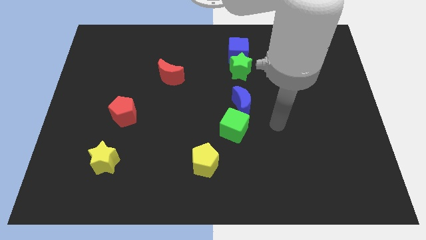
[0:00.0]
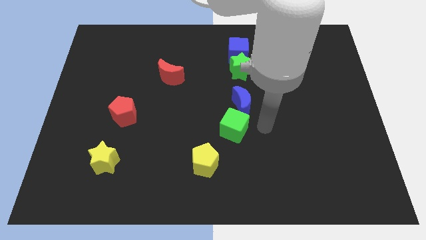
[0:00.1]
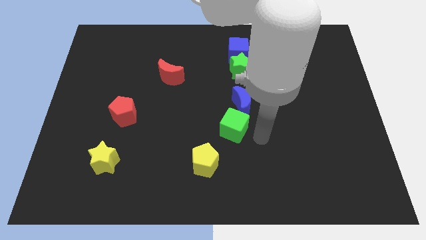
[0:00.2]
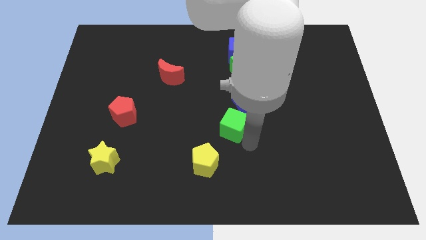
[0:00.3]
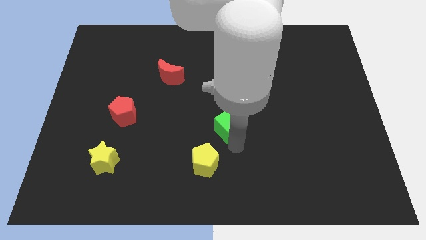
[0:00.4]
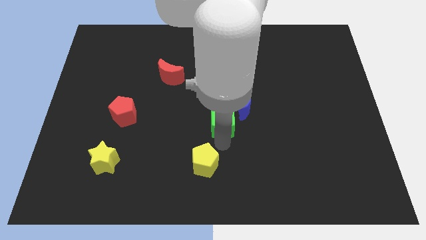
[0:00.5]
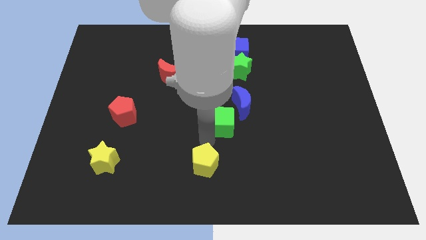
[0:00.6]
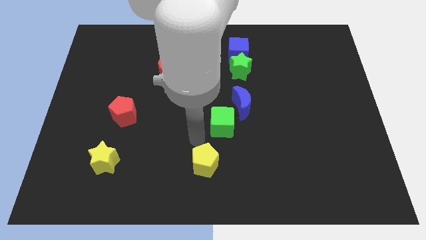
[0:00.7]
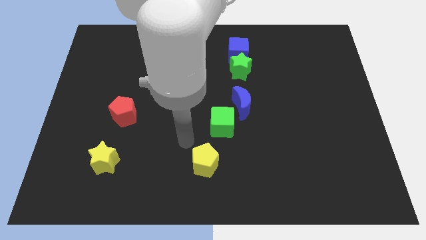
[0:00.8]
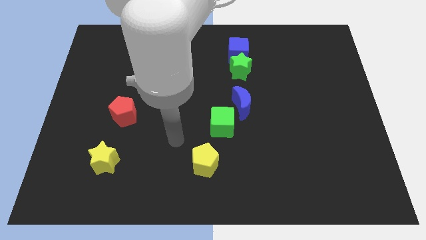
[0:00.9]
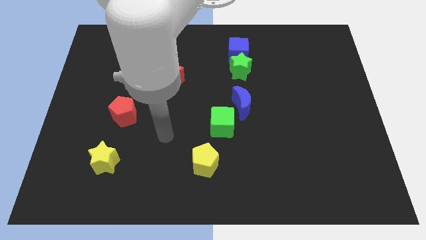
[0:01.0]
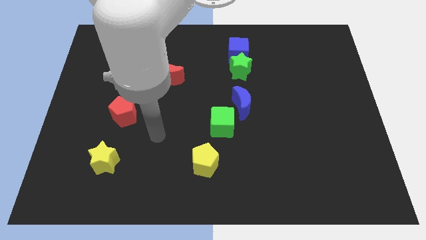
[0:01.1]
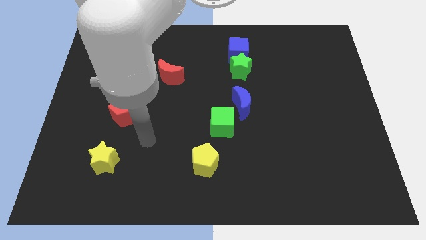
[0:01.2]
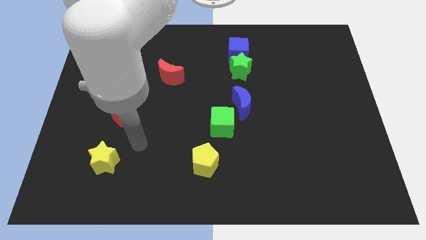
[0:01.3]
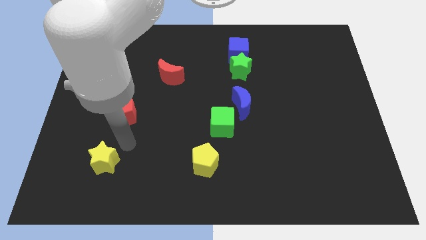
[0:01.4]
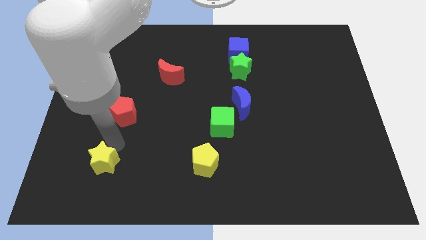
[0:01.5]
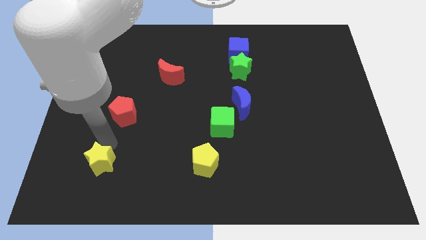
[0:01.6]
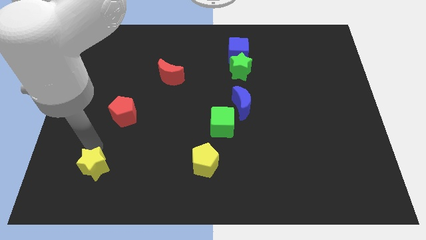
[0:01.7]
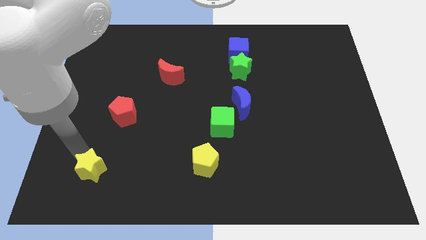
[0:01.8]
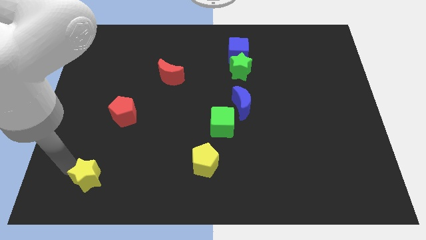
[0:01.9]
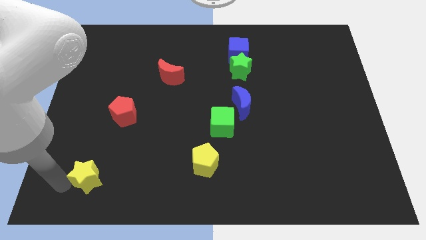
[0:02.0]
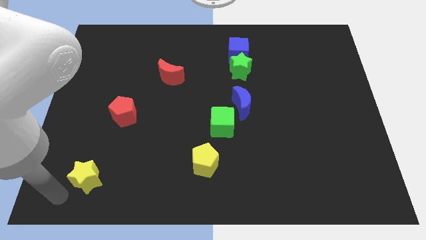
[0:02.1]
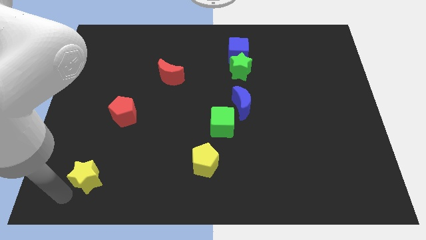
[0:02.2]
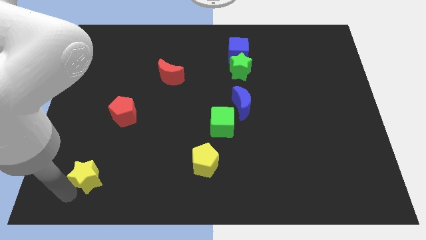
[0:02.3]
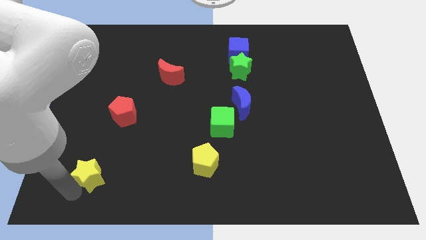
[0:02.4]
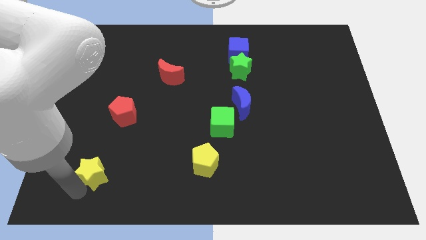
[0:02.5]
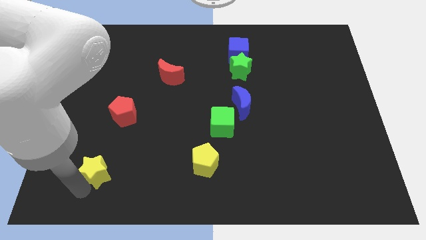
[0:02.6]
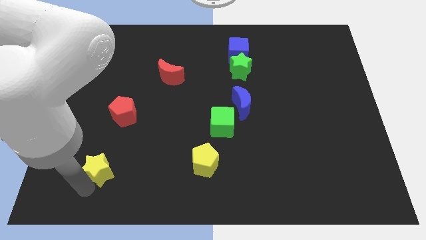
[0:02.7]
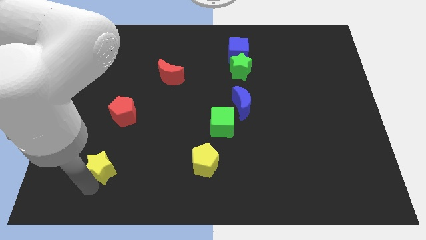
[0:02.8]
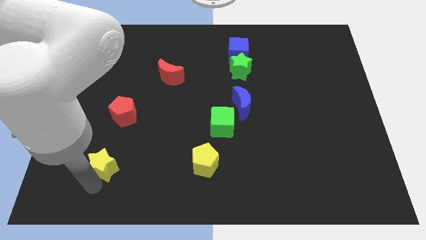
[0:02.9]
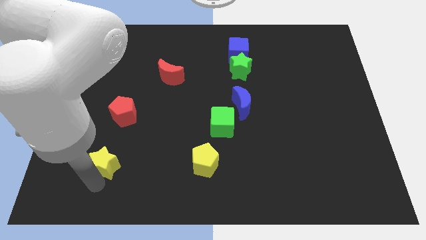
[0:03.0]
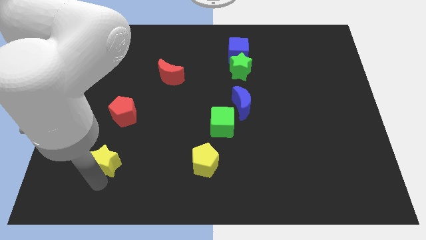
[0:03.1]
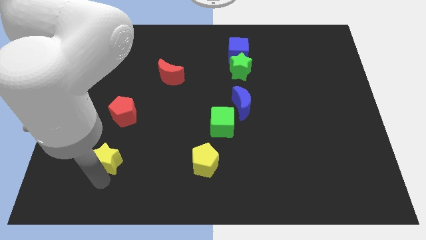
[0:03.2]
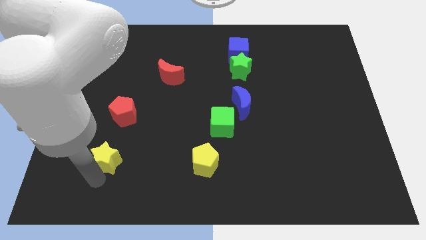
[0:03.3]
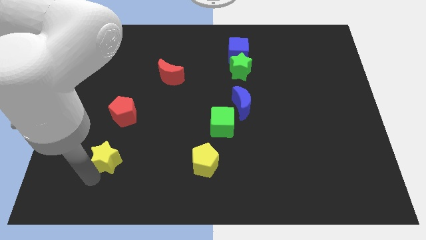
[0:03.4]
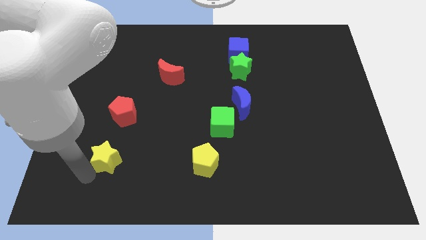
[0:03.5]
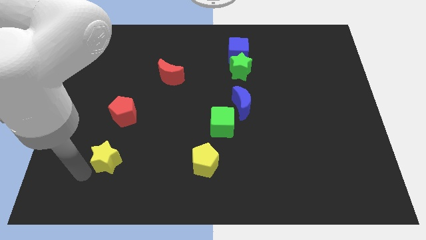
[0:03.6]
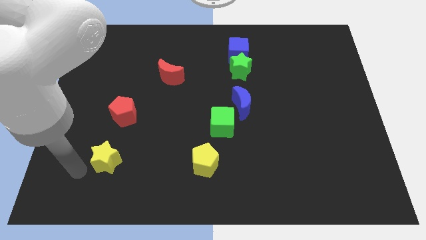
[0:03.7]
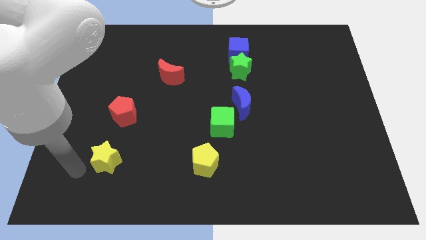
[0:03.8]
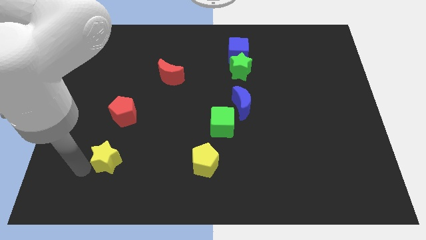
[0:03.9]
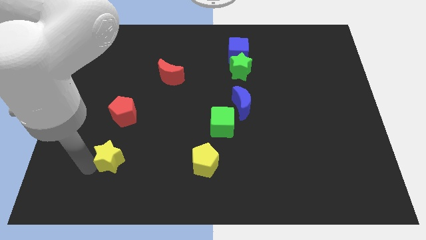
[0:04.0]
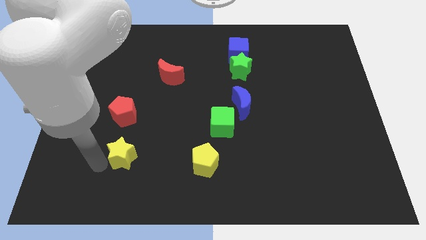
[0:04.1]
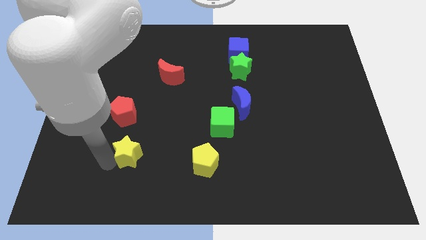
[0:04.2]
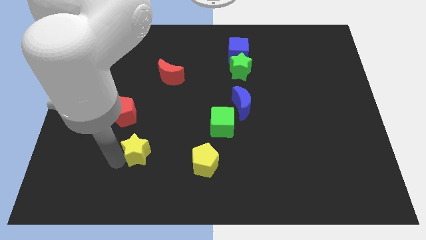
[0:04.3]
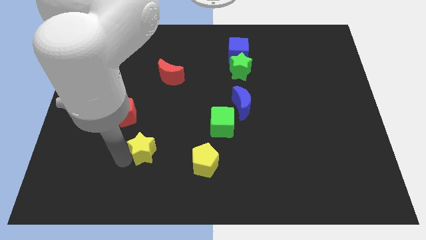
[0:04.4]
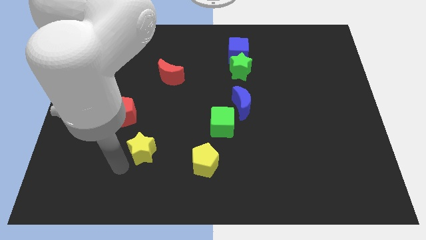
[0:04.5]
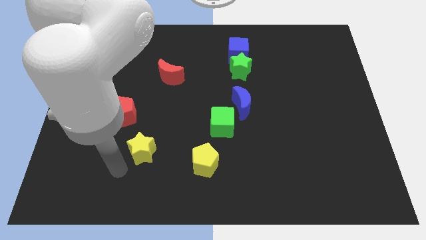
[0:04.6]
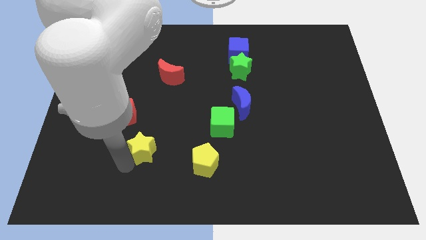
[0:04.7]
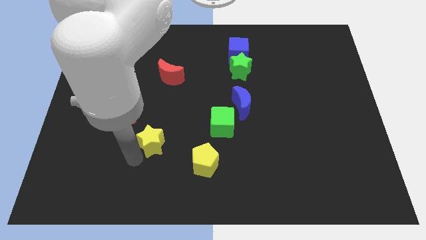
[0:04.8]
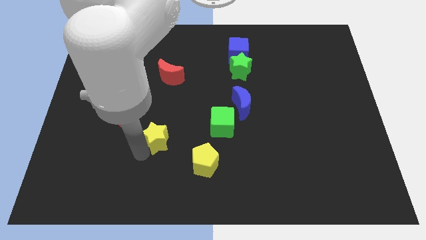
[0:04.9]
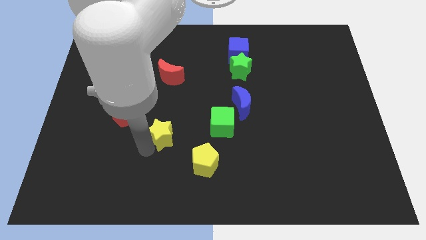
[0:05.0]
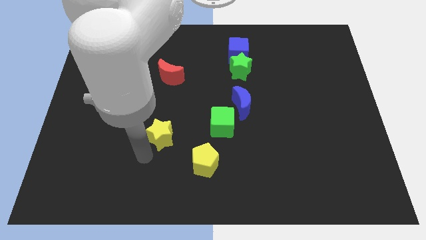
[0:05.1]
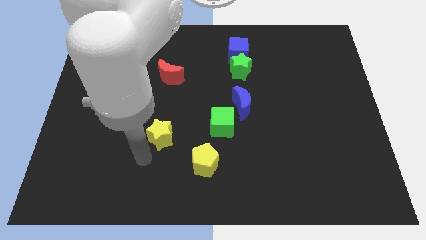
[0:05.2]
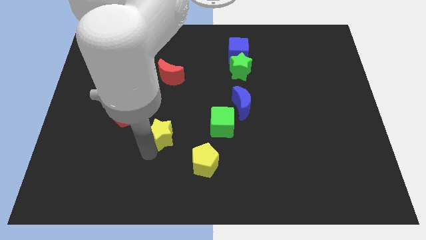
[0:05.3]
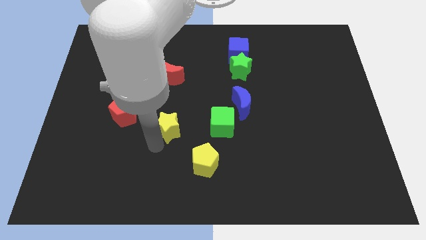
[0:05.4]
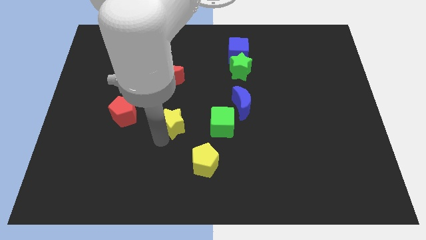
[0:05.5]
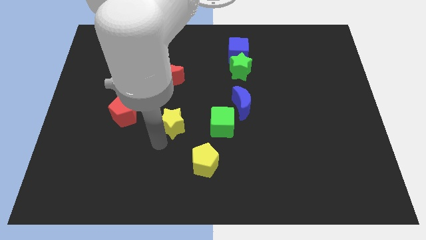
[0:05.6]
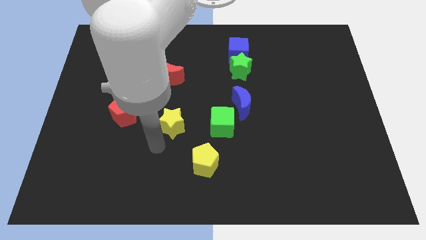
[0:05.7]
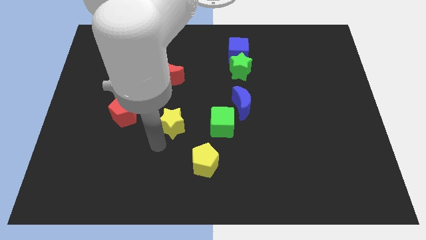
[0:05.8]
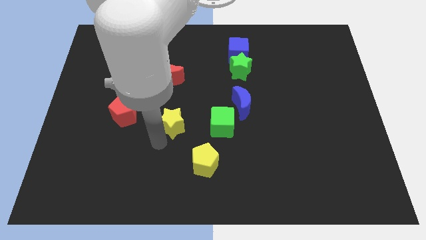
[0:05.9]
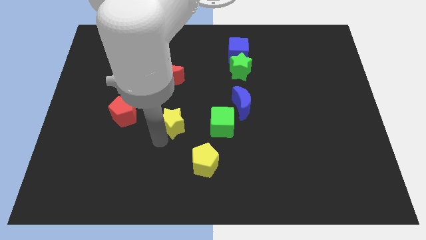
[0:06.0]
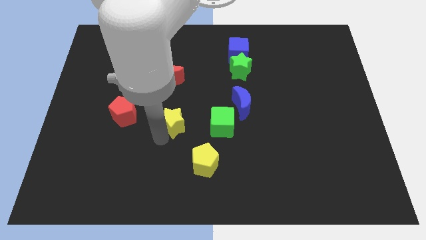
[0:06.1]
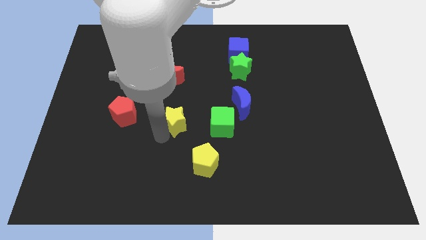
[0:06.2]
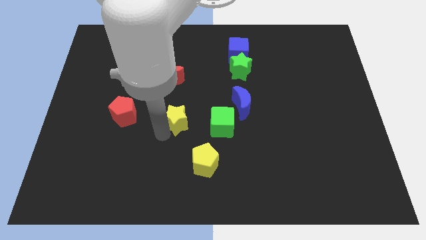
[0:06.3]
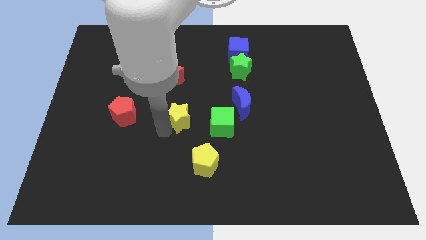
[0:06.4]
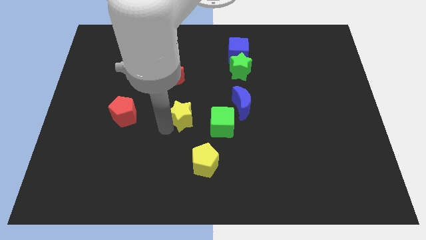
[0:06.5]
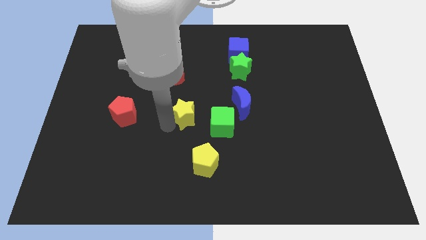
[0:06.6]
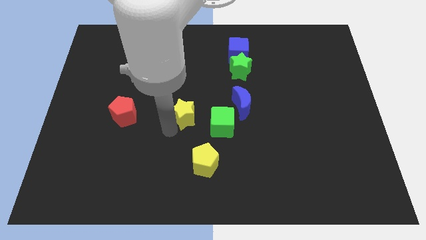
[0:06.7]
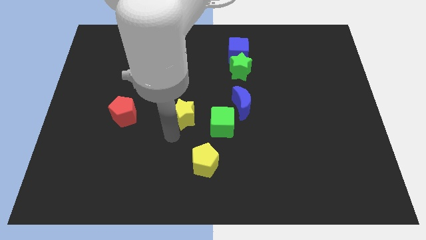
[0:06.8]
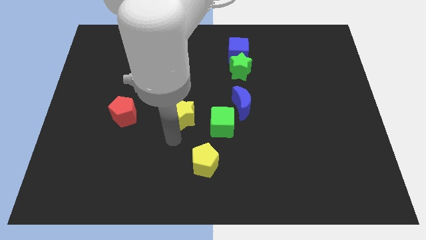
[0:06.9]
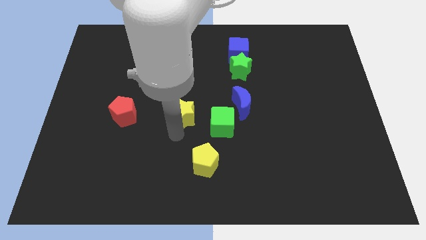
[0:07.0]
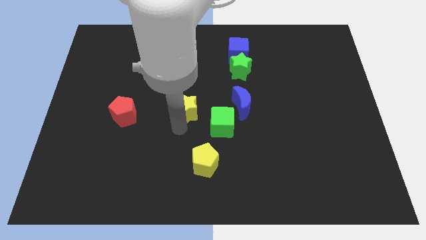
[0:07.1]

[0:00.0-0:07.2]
push the yellow star diagonally upwards and to the right

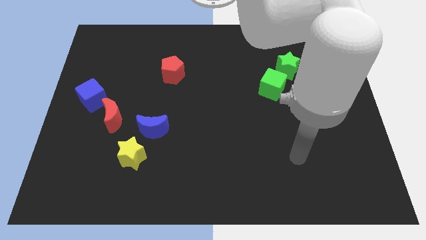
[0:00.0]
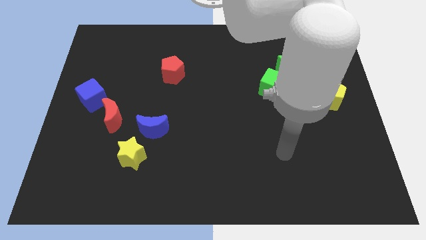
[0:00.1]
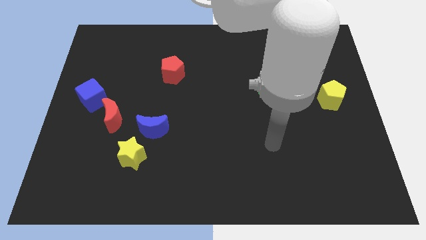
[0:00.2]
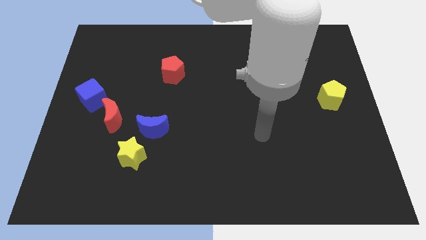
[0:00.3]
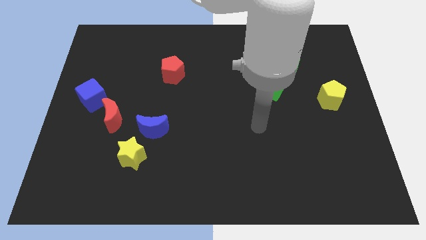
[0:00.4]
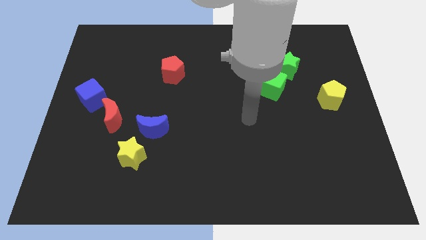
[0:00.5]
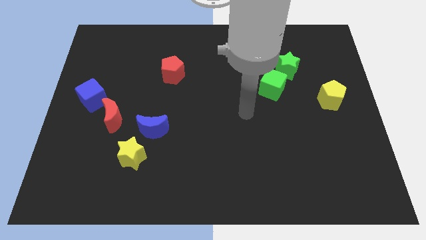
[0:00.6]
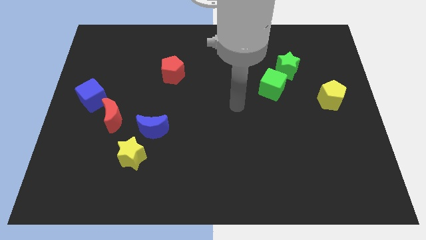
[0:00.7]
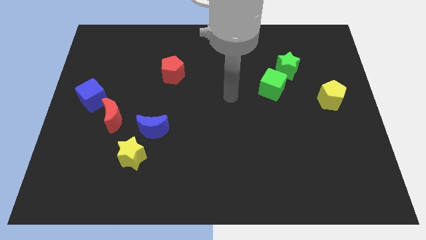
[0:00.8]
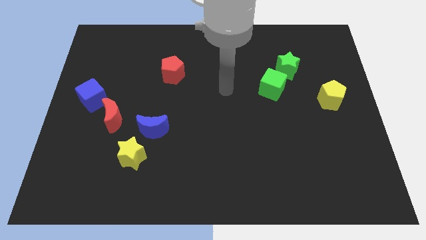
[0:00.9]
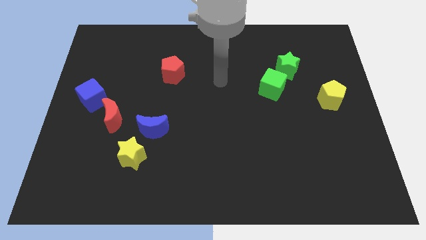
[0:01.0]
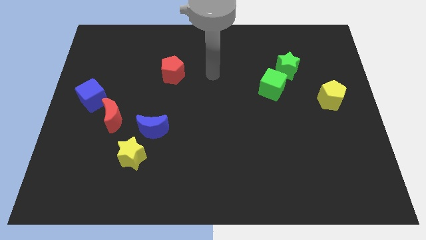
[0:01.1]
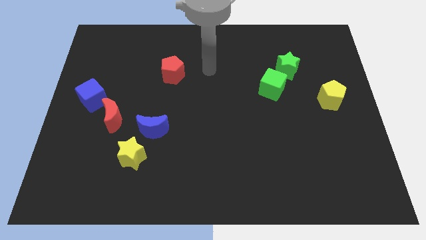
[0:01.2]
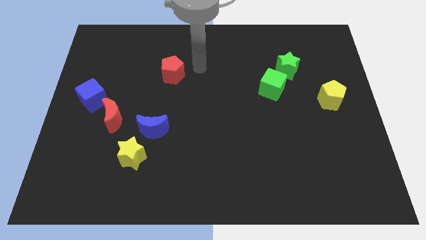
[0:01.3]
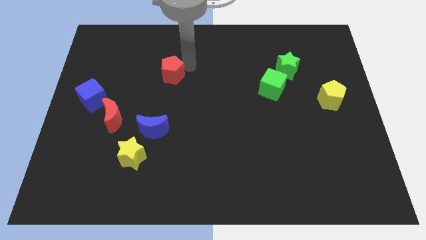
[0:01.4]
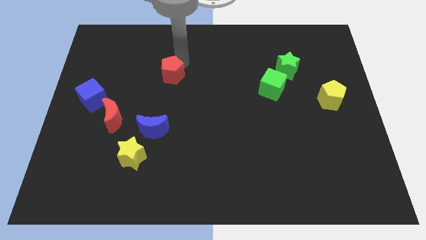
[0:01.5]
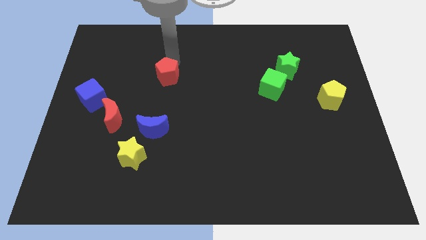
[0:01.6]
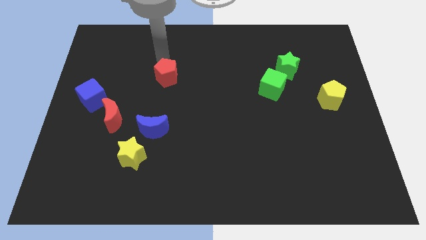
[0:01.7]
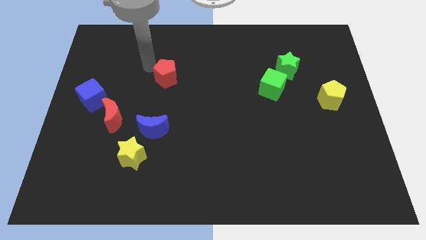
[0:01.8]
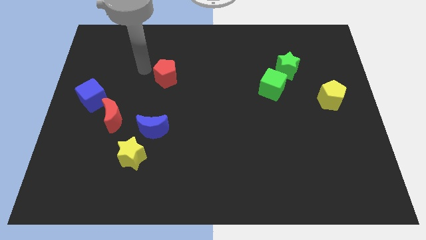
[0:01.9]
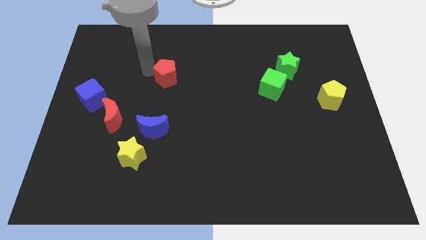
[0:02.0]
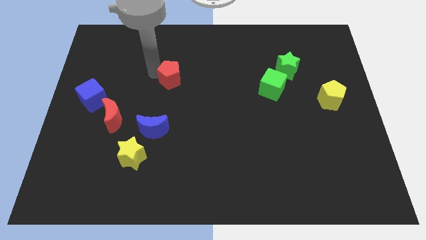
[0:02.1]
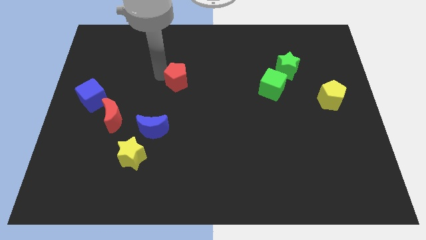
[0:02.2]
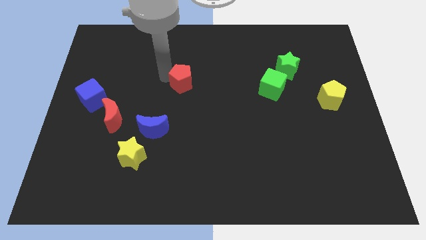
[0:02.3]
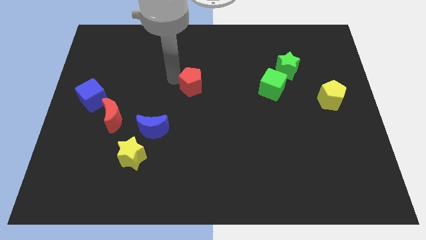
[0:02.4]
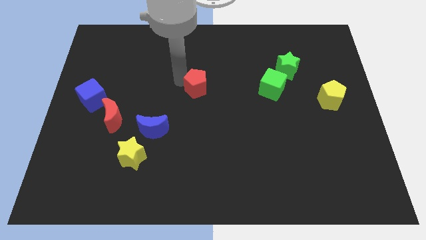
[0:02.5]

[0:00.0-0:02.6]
slide the red pentagon down and to the right slightly
